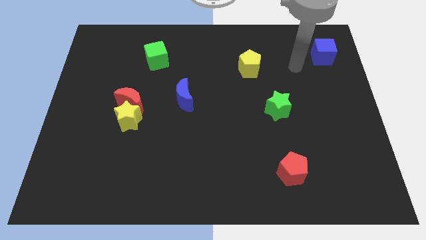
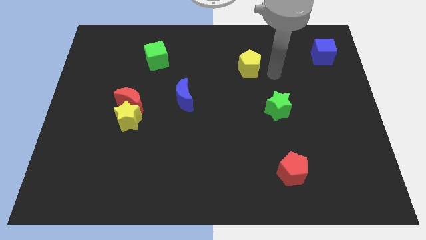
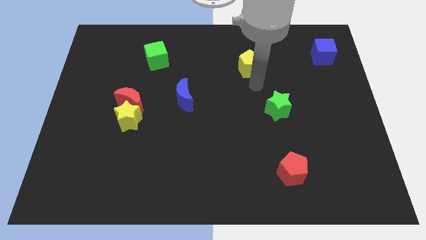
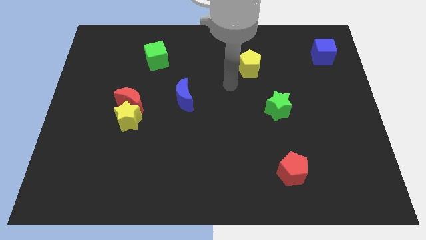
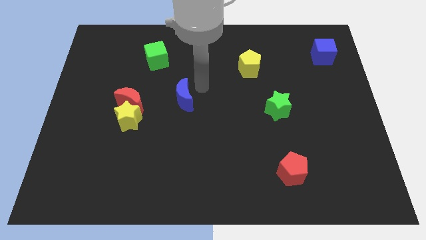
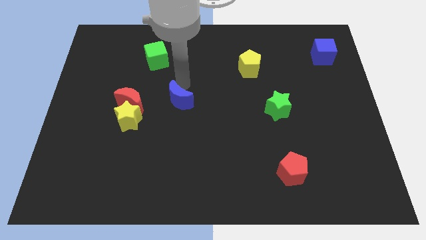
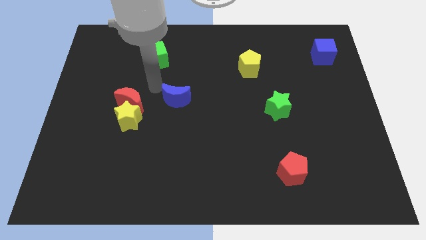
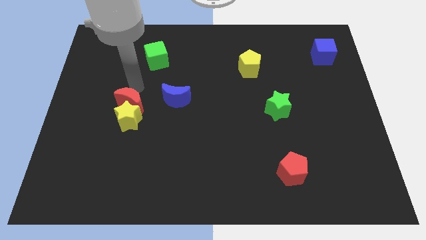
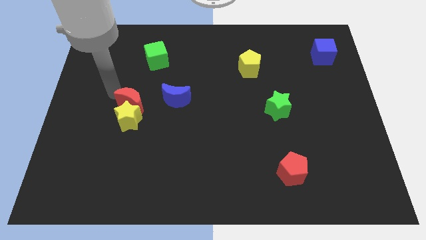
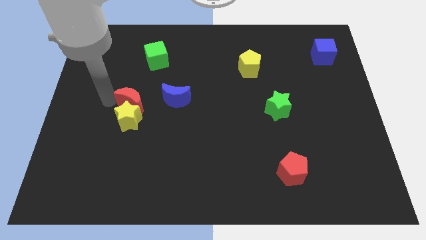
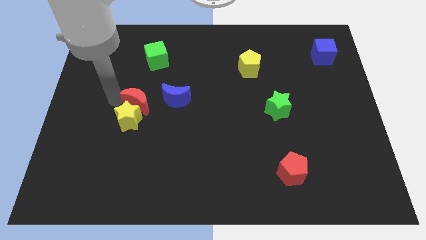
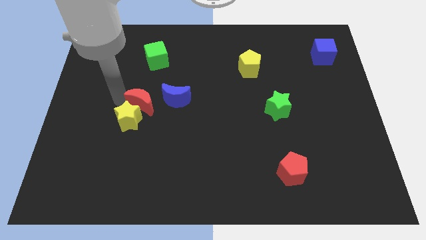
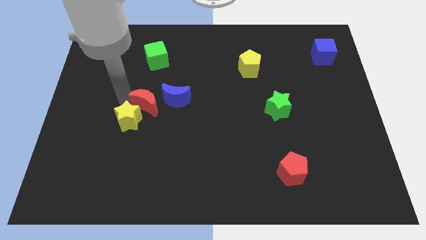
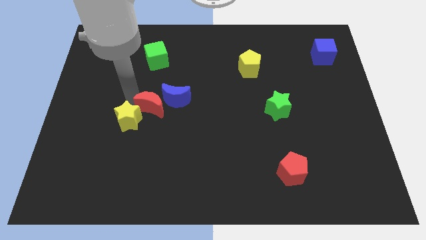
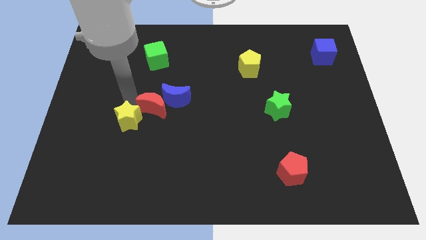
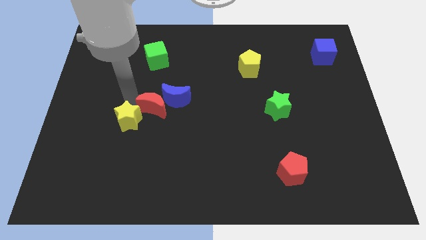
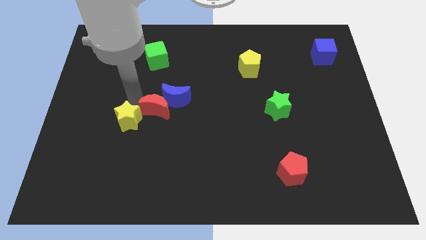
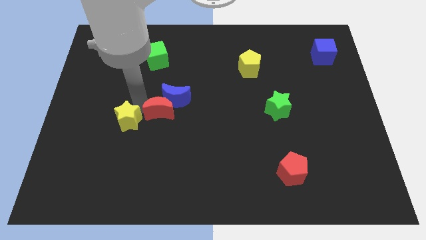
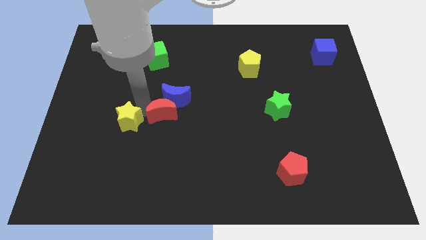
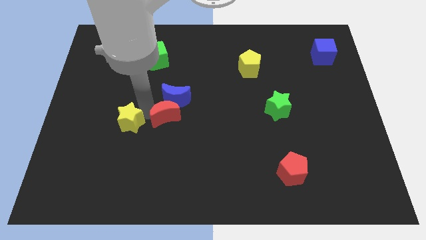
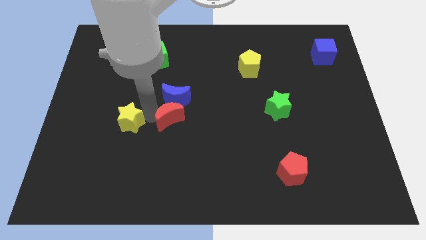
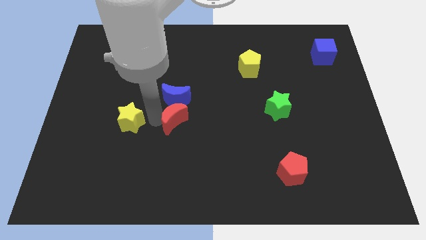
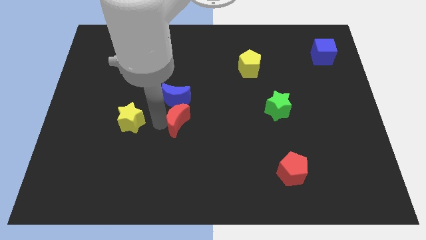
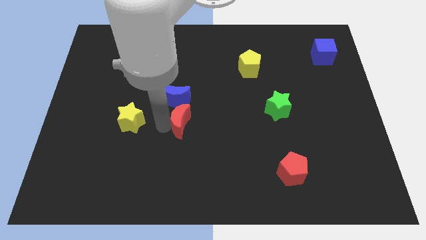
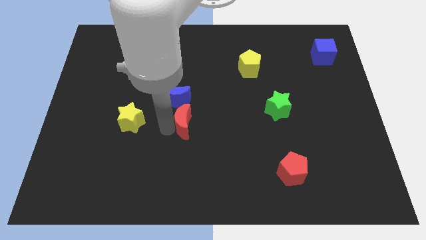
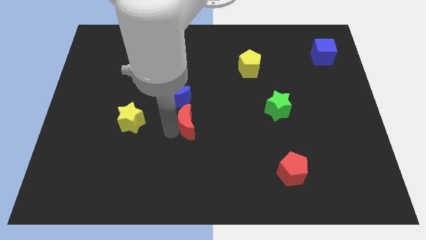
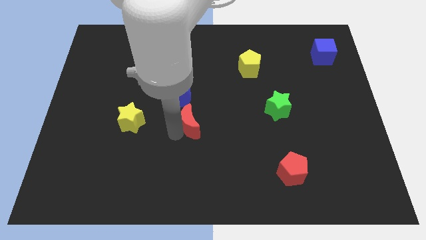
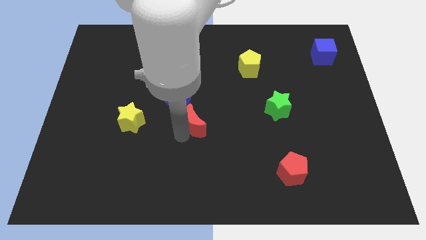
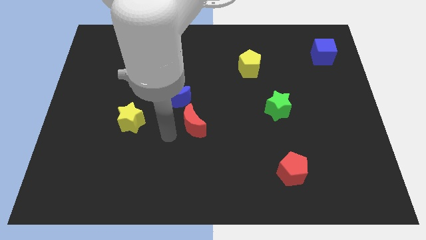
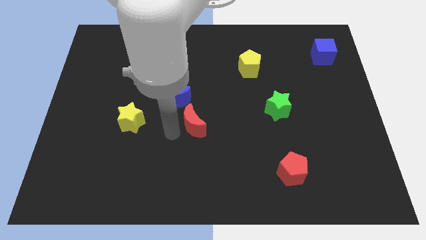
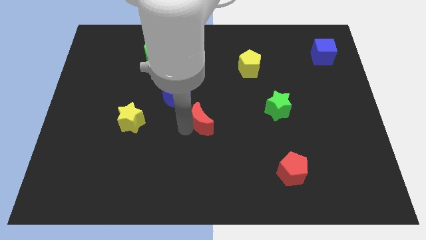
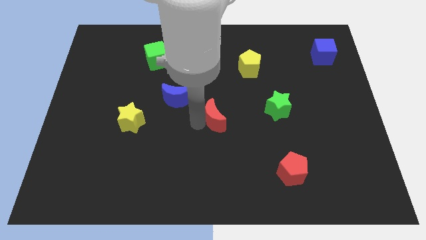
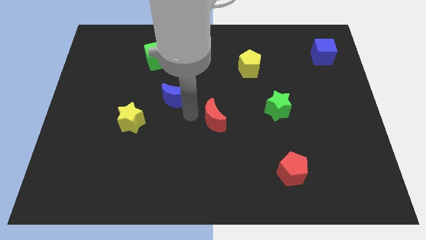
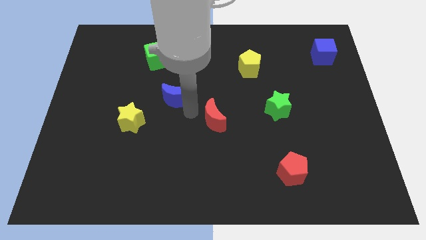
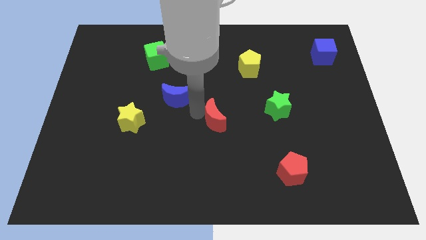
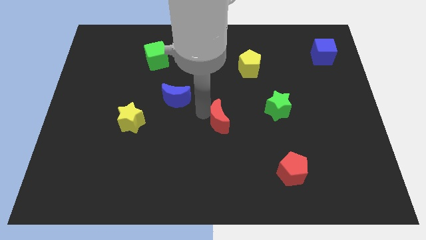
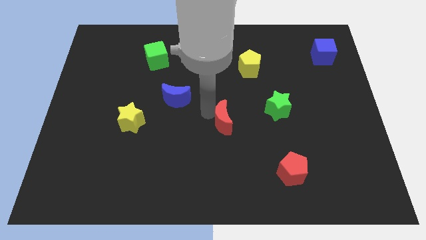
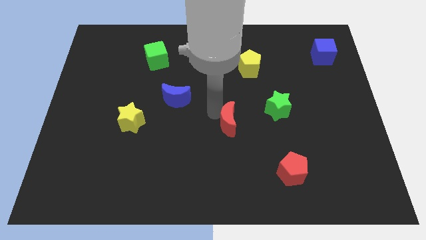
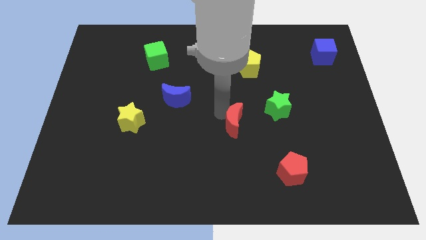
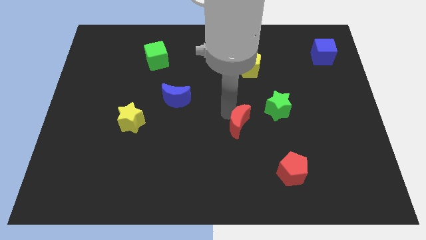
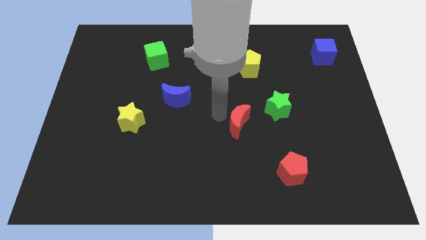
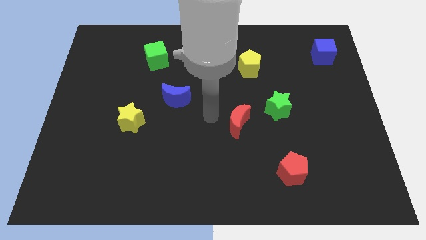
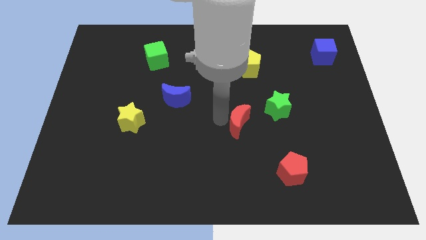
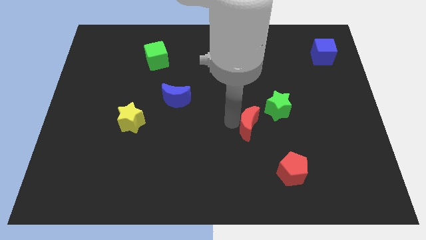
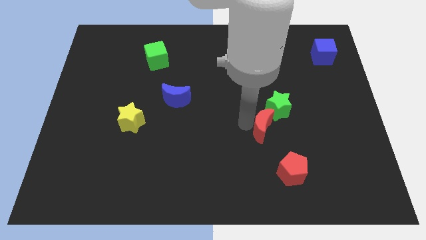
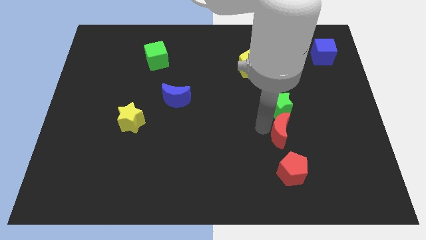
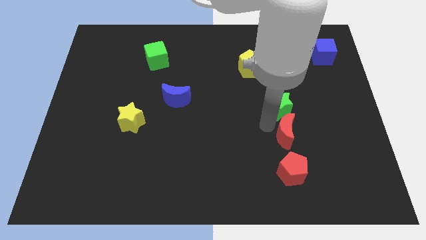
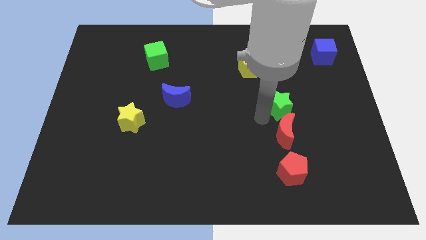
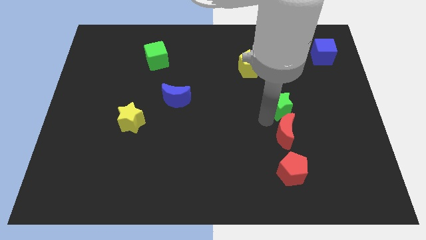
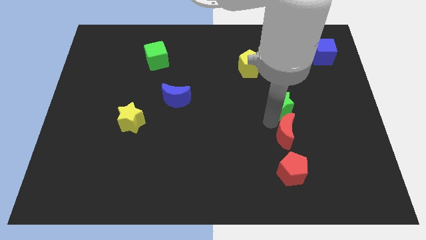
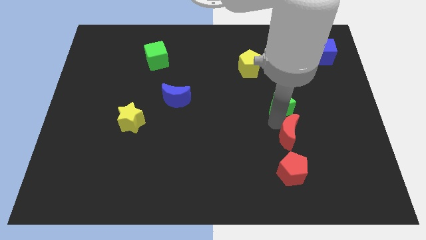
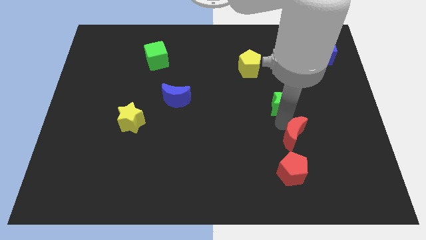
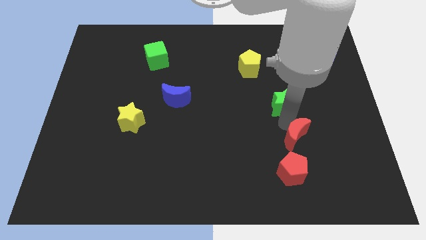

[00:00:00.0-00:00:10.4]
put the red moon to the top right side of the red pentagon

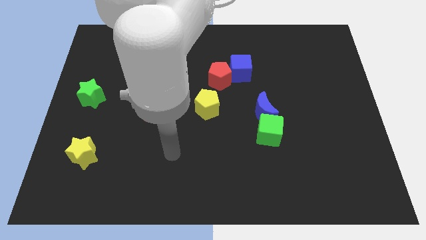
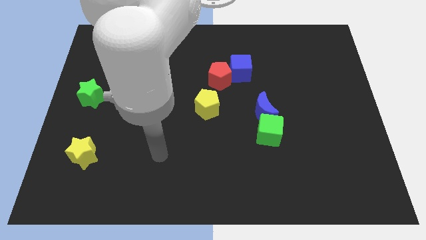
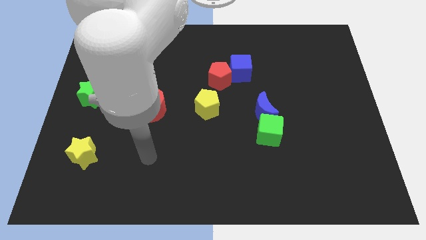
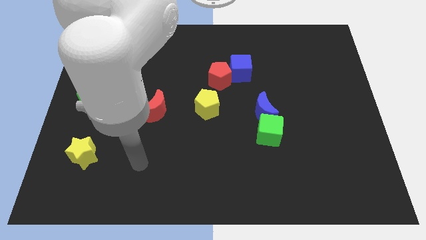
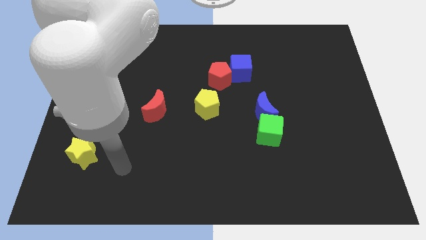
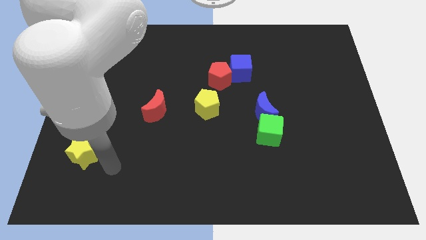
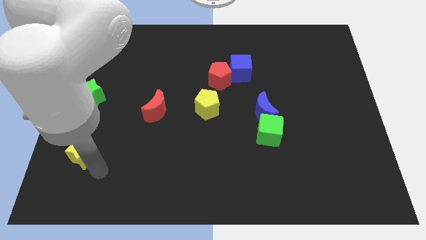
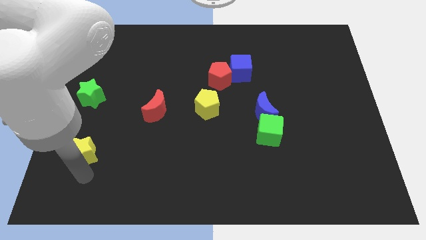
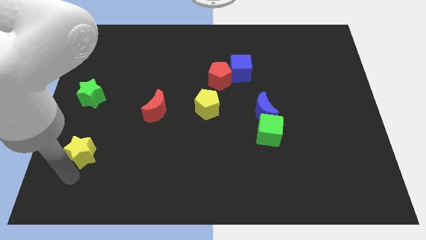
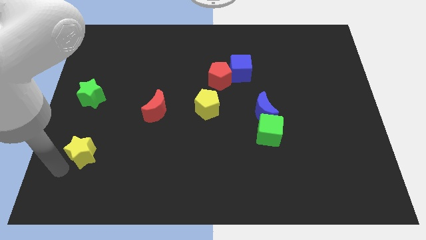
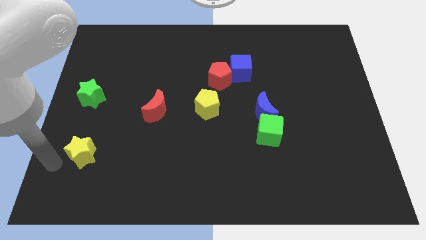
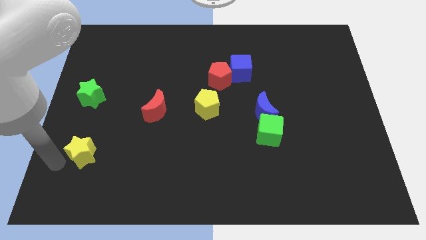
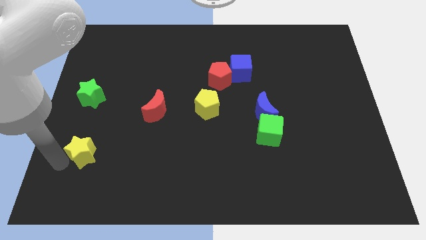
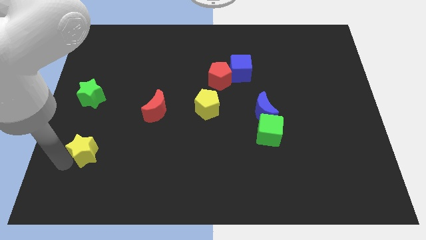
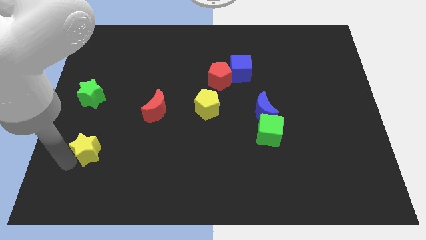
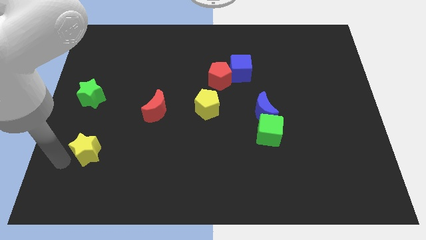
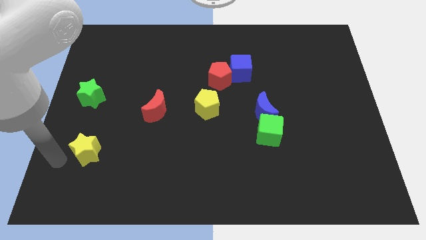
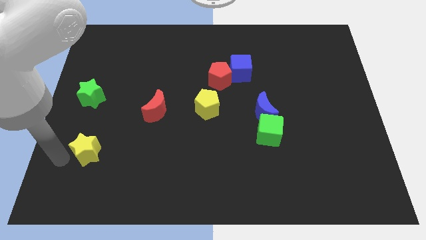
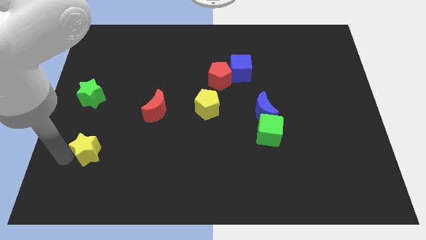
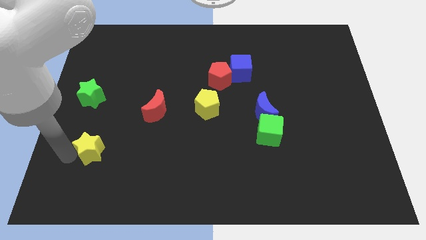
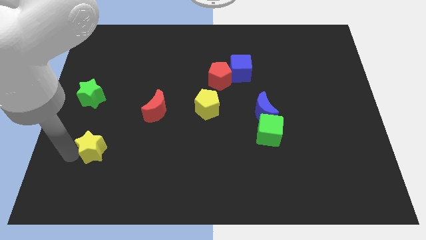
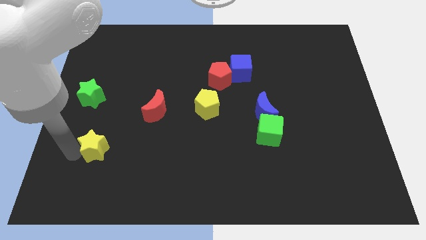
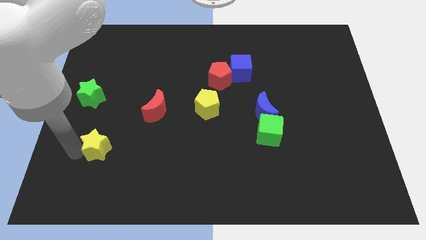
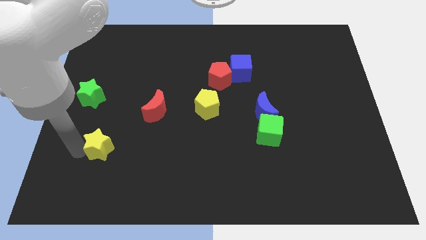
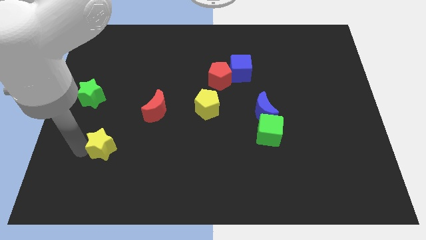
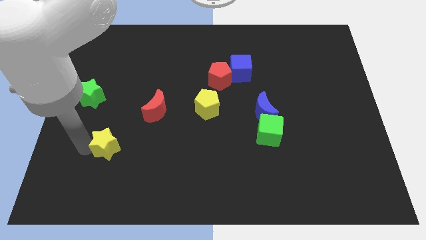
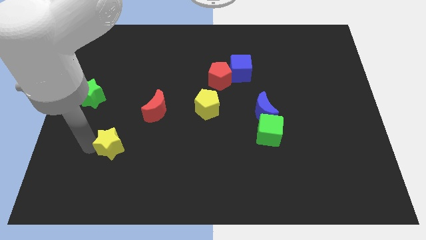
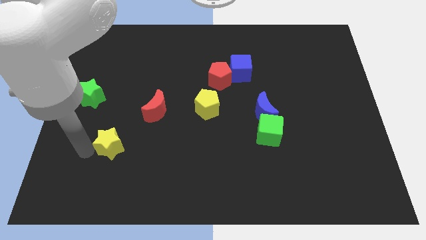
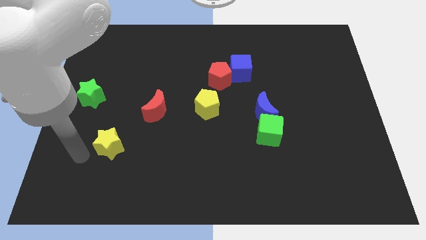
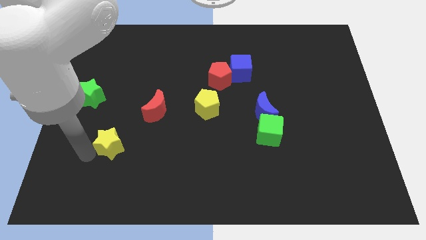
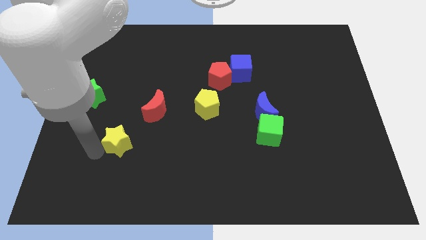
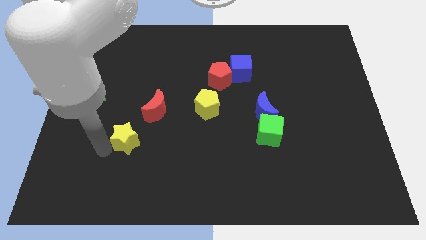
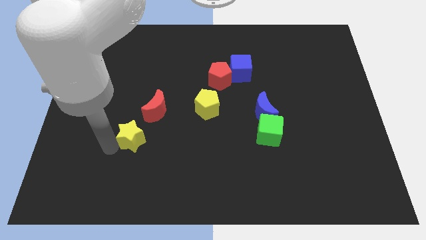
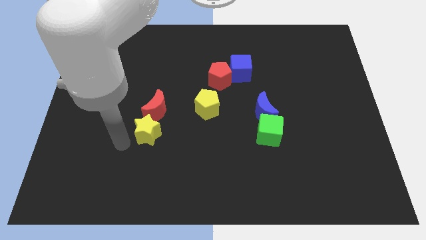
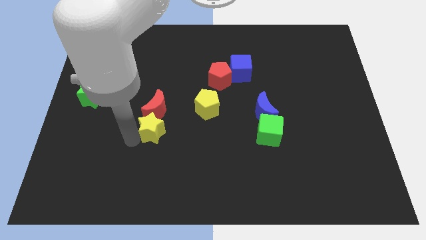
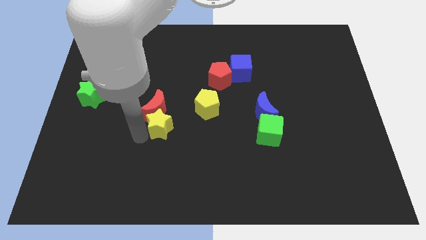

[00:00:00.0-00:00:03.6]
put the yellow star to the bottom left side of the yellow pentagon
